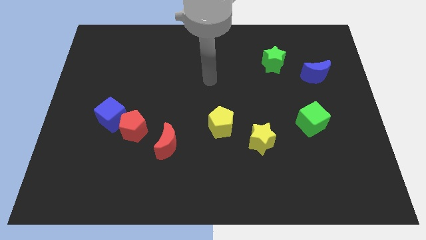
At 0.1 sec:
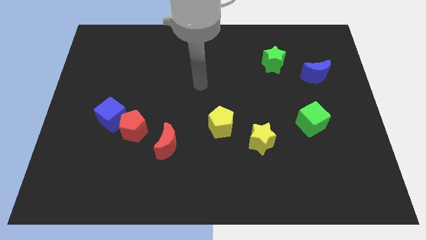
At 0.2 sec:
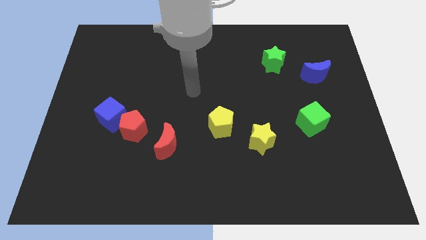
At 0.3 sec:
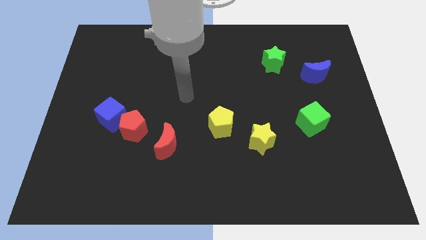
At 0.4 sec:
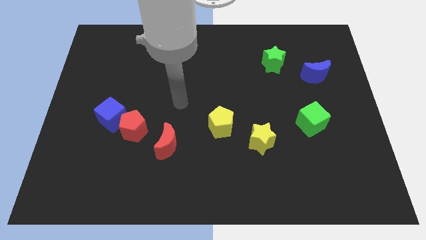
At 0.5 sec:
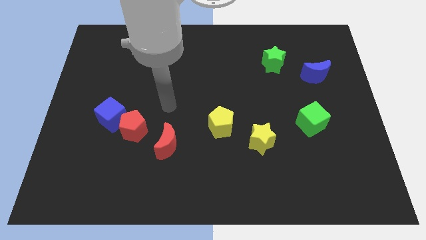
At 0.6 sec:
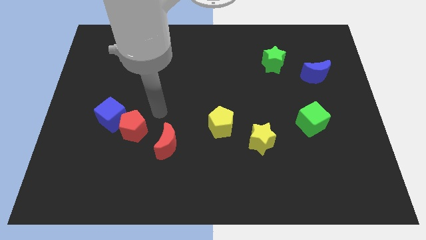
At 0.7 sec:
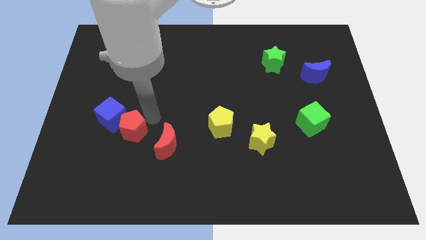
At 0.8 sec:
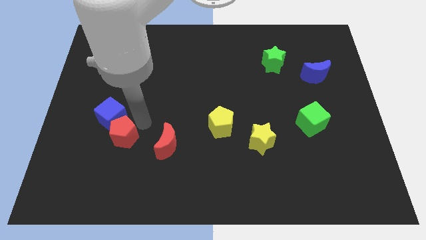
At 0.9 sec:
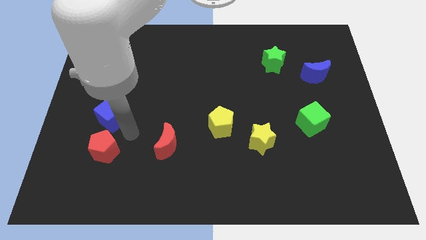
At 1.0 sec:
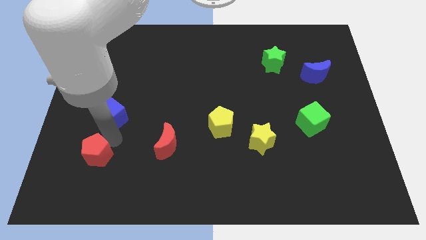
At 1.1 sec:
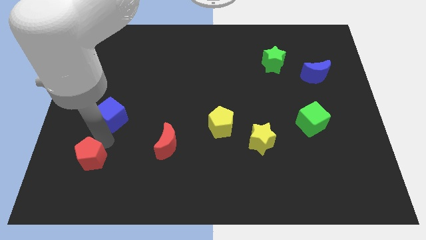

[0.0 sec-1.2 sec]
pull the blue cube apart from the red pentagon

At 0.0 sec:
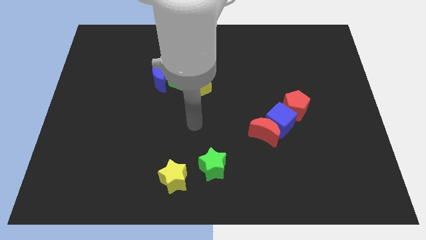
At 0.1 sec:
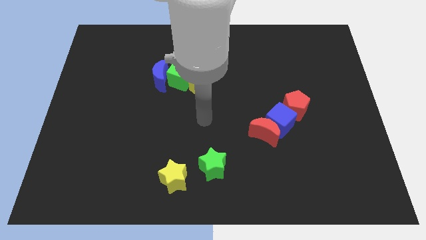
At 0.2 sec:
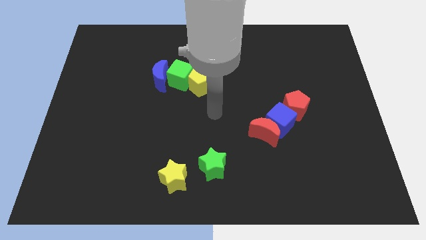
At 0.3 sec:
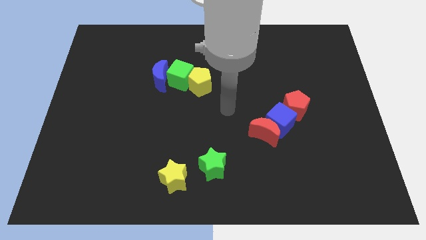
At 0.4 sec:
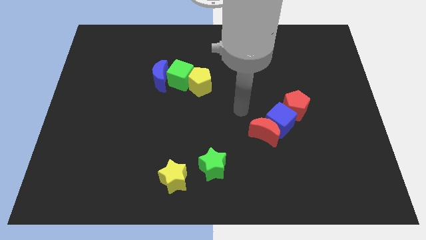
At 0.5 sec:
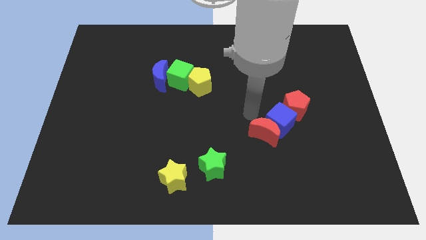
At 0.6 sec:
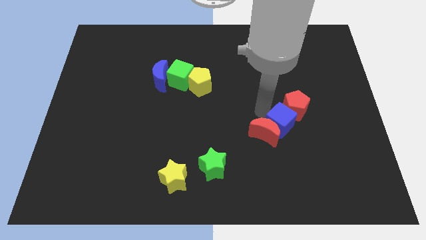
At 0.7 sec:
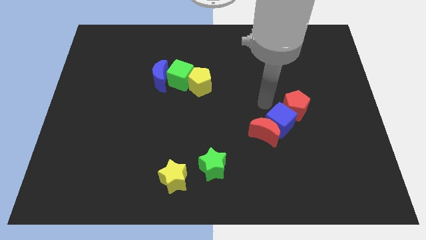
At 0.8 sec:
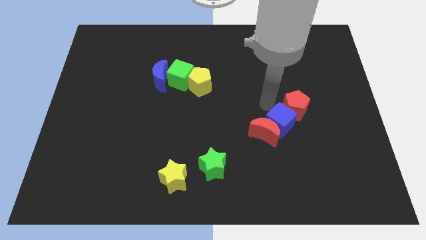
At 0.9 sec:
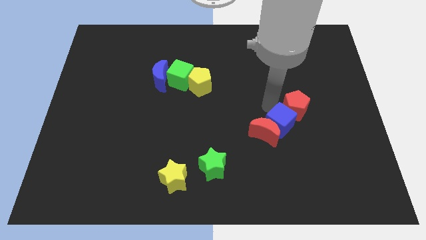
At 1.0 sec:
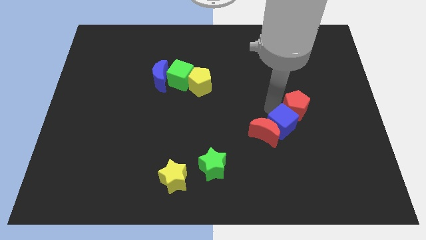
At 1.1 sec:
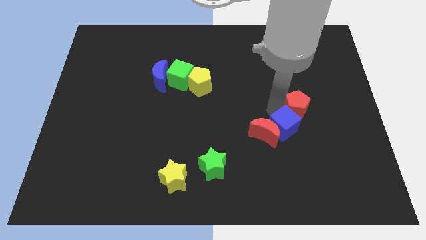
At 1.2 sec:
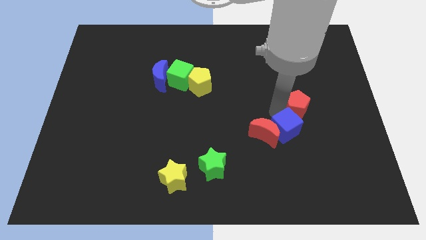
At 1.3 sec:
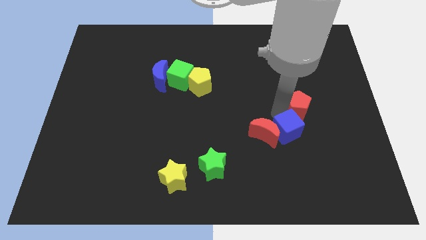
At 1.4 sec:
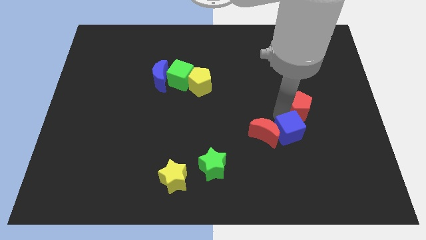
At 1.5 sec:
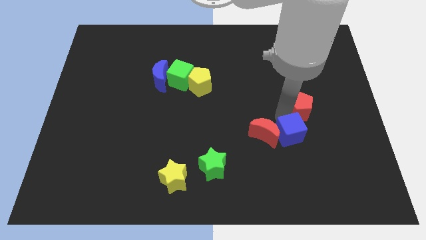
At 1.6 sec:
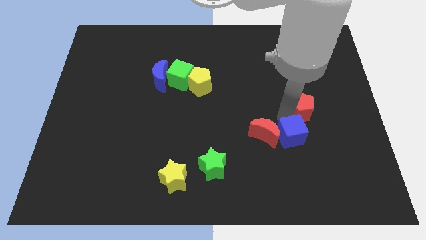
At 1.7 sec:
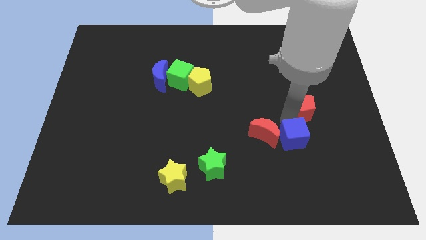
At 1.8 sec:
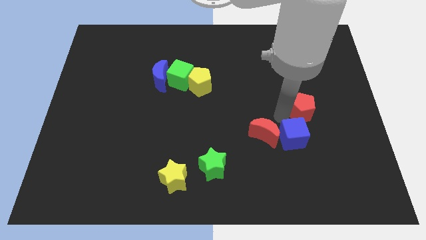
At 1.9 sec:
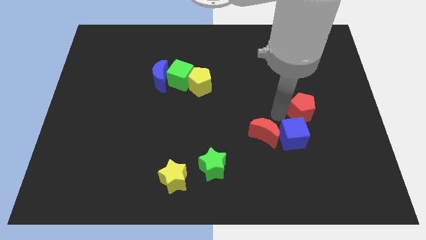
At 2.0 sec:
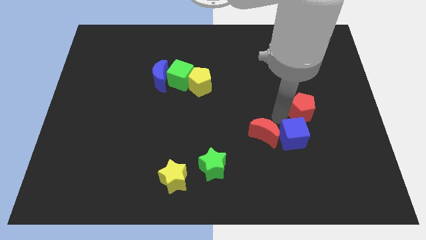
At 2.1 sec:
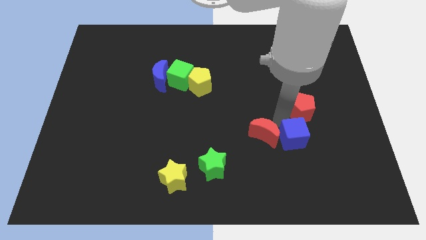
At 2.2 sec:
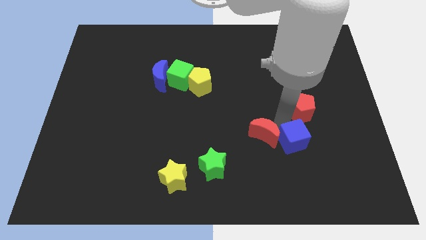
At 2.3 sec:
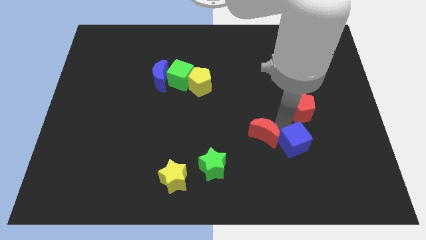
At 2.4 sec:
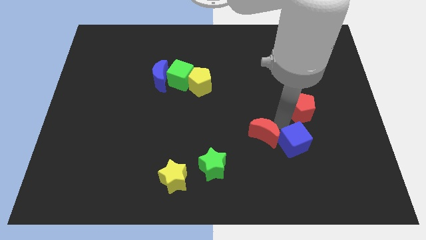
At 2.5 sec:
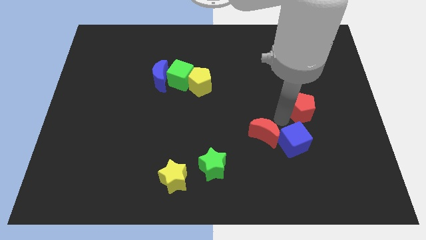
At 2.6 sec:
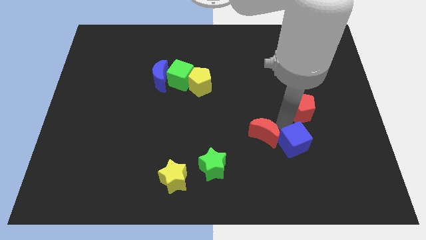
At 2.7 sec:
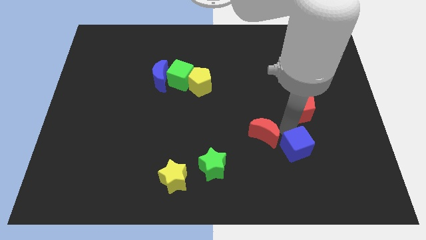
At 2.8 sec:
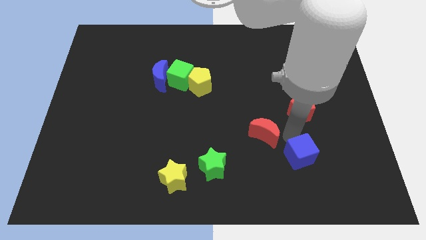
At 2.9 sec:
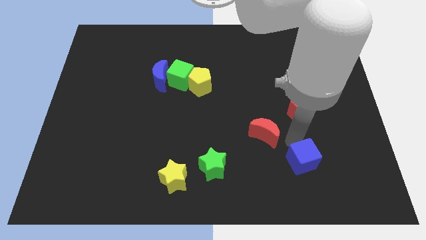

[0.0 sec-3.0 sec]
move the blue cube away from the red moon and red pentagon

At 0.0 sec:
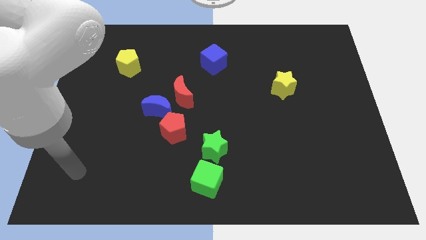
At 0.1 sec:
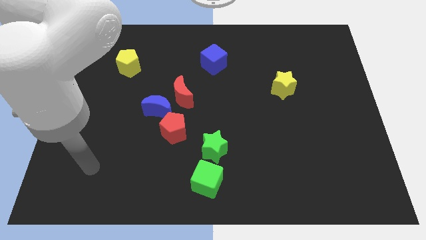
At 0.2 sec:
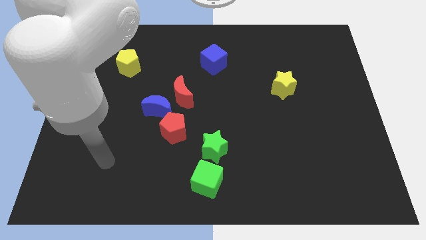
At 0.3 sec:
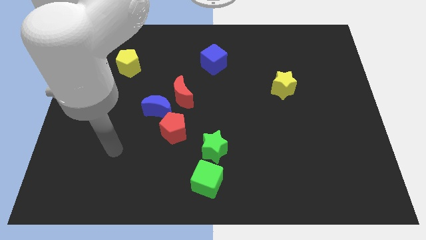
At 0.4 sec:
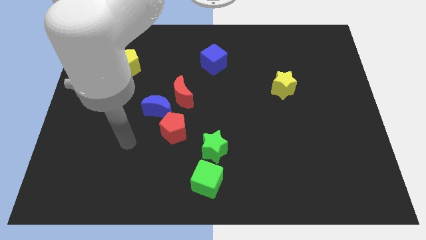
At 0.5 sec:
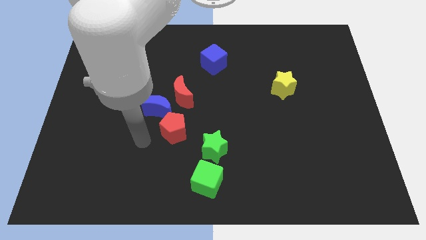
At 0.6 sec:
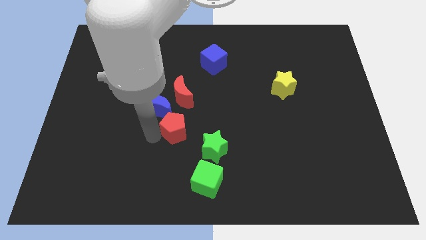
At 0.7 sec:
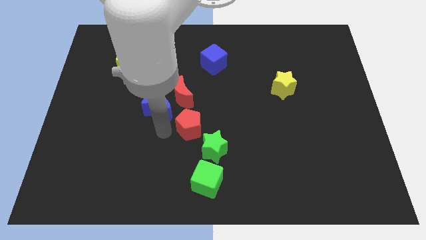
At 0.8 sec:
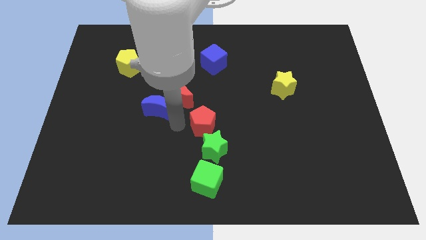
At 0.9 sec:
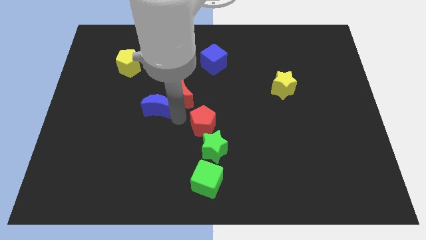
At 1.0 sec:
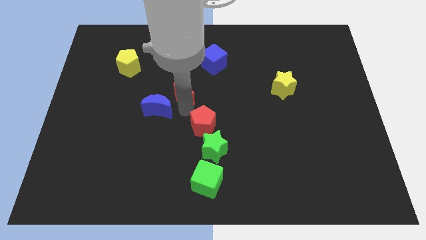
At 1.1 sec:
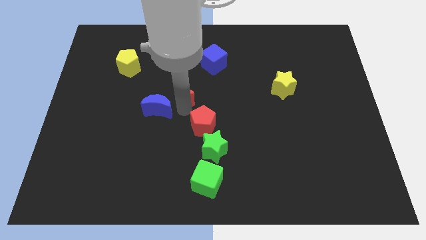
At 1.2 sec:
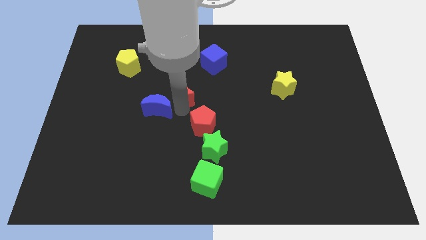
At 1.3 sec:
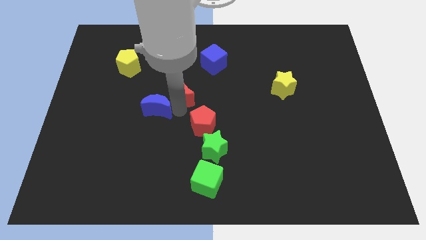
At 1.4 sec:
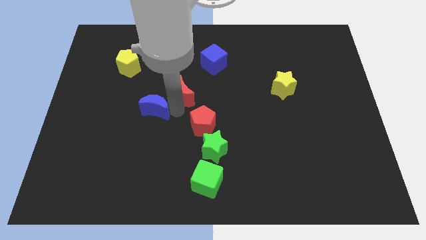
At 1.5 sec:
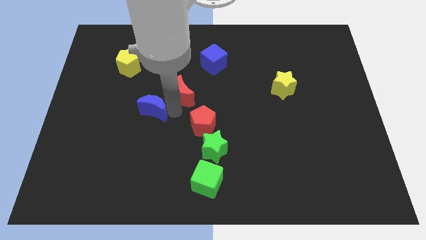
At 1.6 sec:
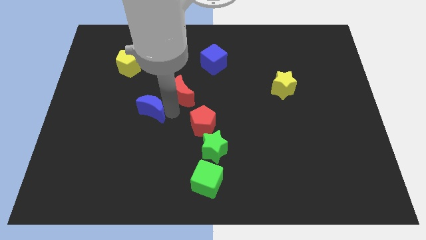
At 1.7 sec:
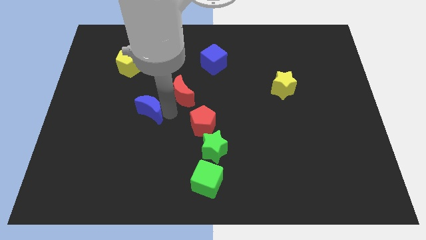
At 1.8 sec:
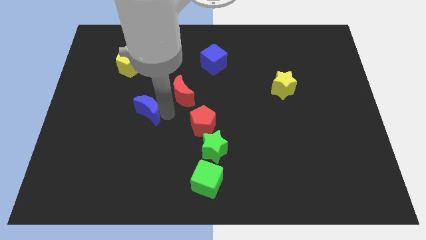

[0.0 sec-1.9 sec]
pull the blue moon apart from the red moon and red pentagon

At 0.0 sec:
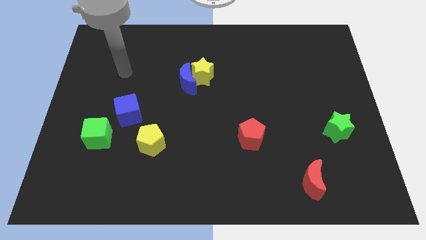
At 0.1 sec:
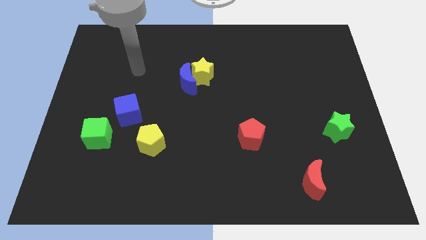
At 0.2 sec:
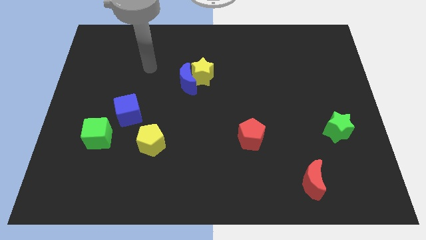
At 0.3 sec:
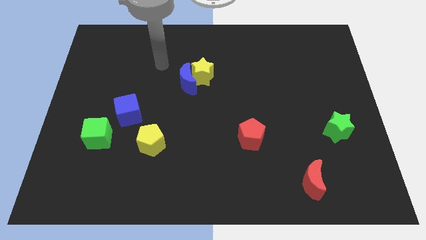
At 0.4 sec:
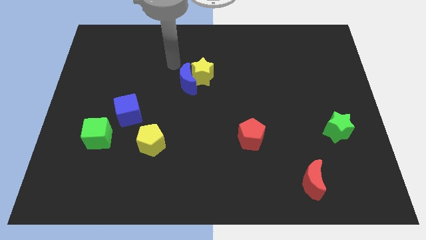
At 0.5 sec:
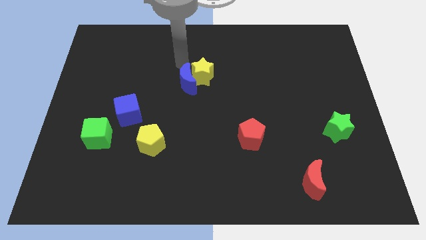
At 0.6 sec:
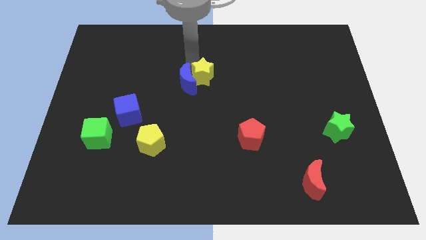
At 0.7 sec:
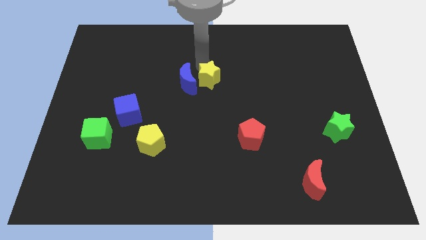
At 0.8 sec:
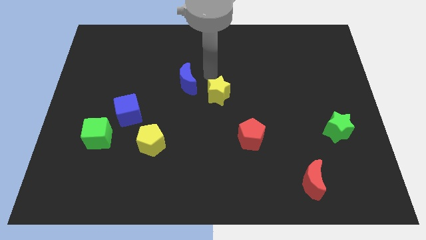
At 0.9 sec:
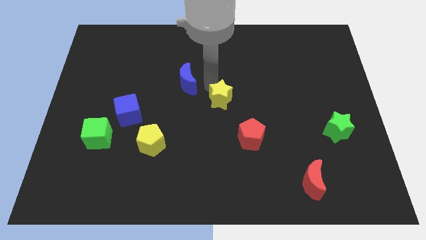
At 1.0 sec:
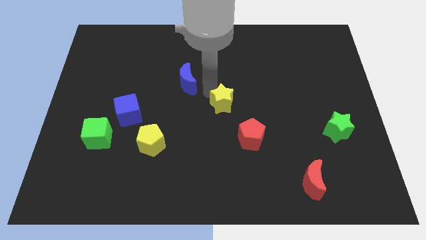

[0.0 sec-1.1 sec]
pull the blue moon apart from the yellow star

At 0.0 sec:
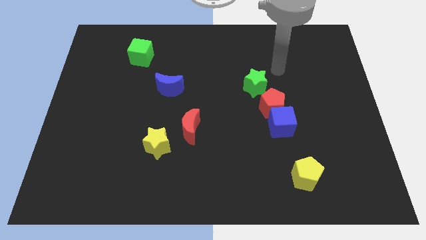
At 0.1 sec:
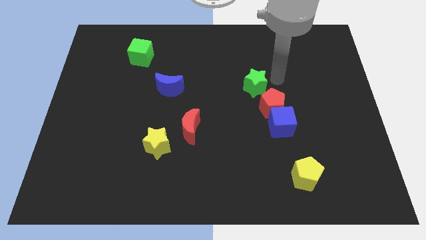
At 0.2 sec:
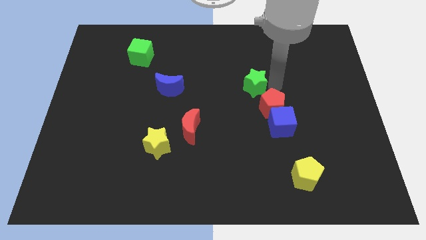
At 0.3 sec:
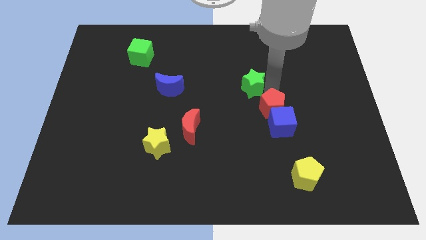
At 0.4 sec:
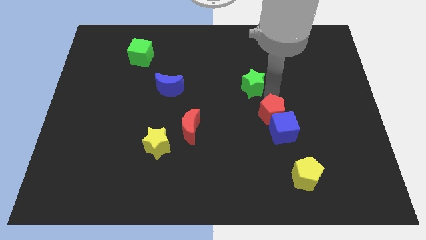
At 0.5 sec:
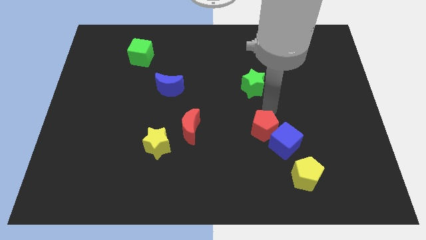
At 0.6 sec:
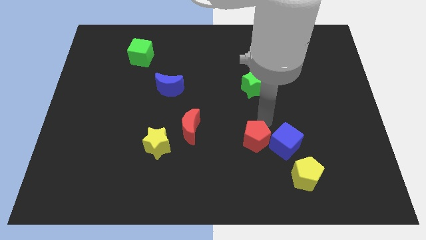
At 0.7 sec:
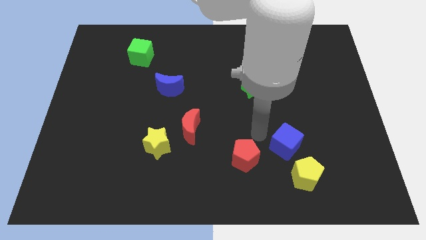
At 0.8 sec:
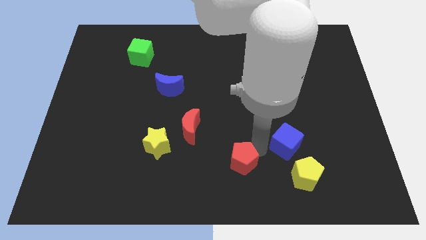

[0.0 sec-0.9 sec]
separate the blue cube from the red pentagon

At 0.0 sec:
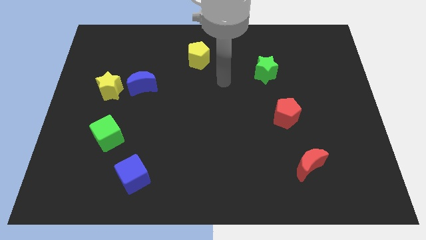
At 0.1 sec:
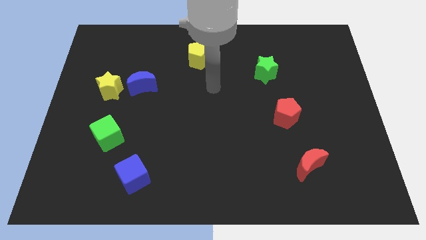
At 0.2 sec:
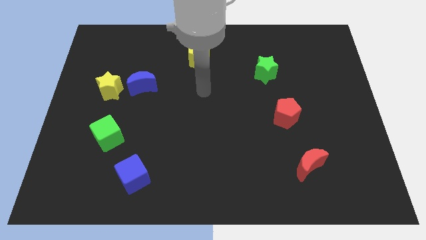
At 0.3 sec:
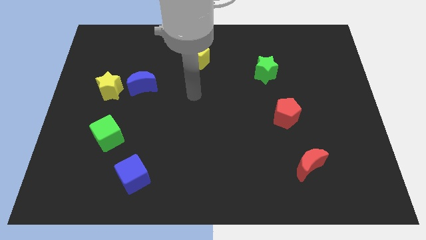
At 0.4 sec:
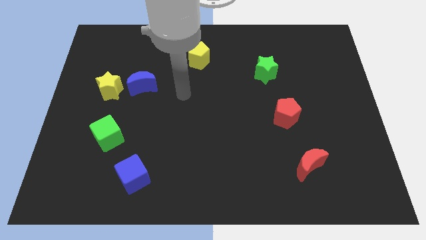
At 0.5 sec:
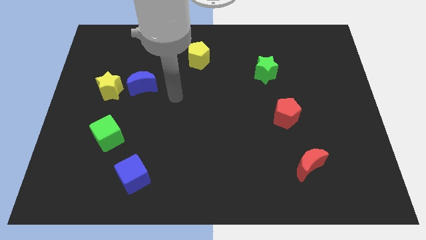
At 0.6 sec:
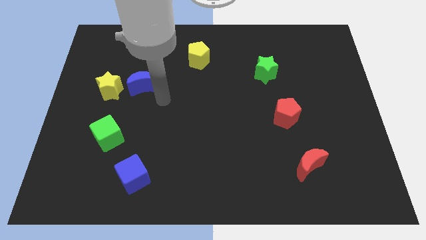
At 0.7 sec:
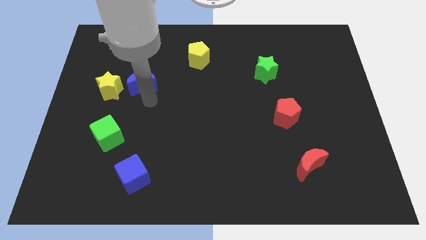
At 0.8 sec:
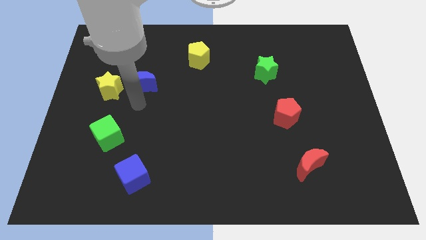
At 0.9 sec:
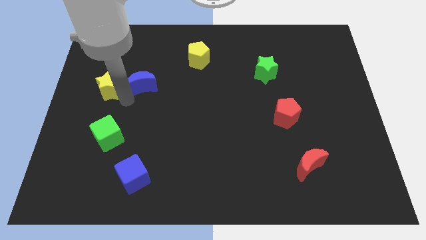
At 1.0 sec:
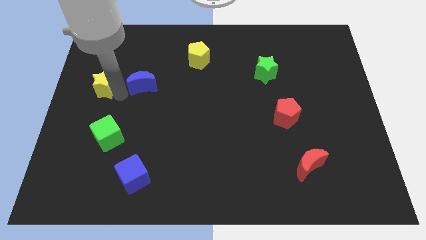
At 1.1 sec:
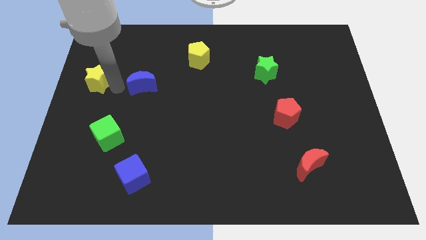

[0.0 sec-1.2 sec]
move the blue moon away from the yellow star

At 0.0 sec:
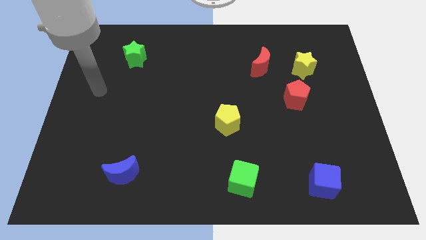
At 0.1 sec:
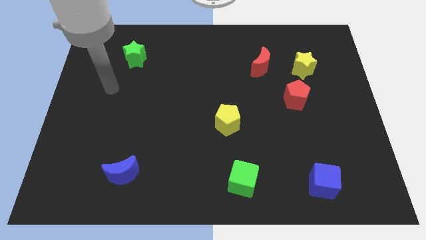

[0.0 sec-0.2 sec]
move the red moon away from the yellow star
